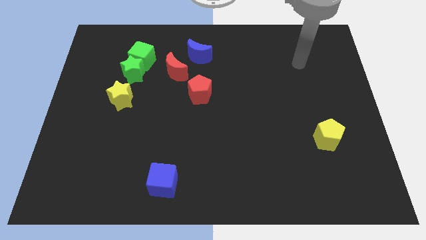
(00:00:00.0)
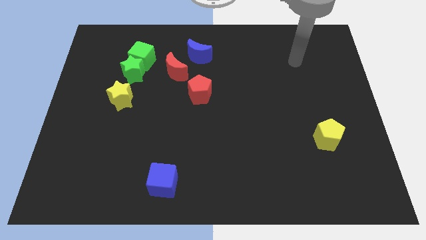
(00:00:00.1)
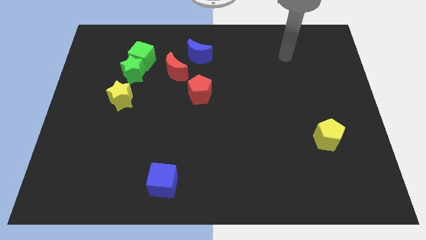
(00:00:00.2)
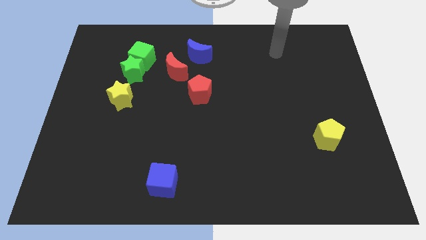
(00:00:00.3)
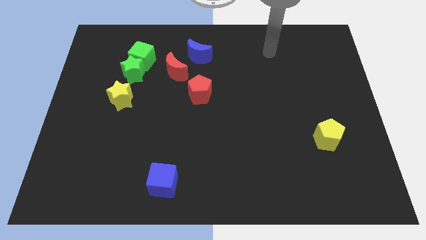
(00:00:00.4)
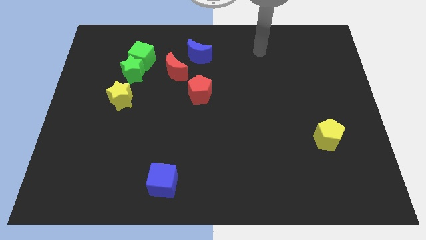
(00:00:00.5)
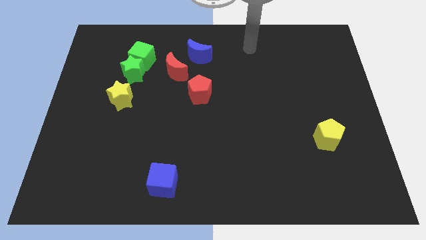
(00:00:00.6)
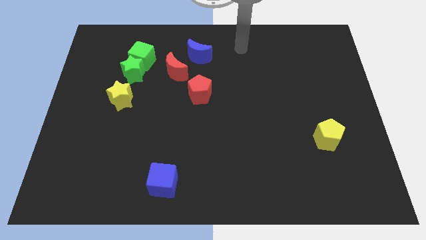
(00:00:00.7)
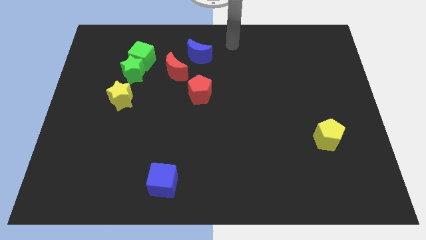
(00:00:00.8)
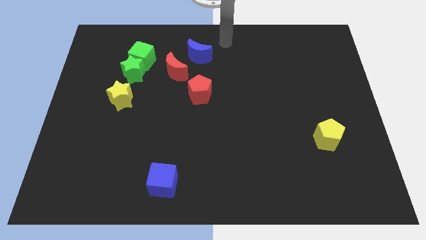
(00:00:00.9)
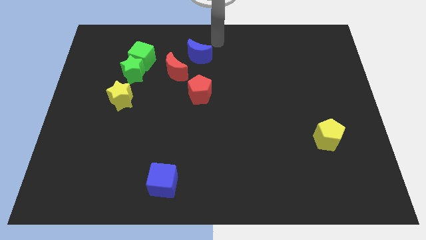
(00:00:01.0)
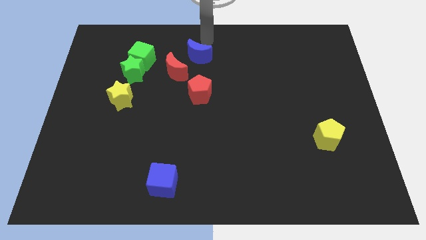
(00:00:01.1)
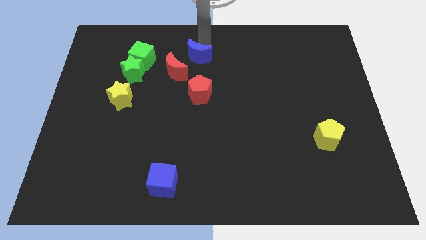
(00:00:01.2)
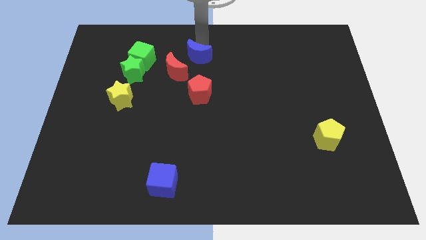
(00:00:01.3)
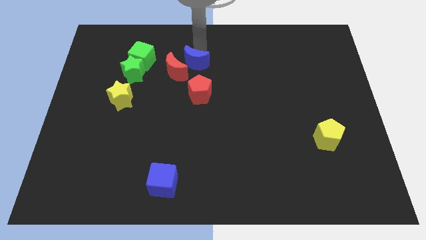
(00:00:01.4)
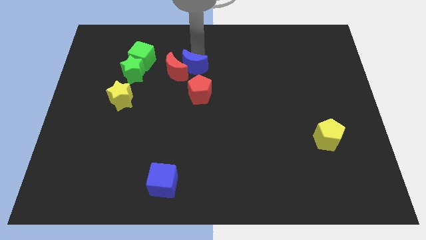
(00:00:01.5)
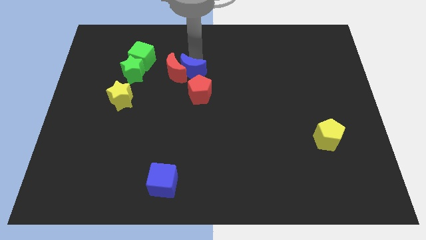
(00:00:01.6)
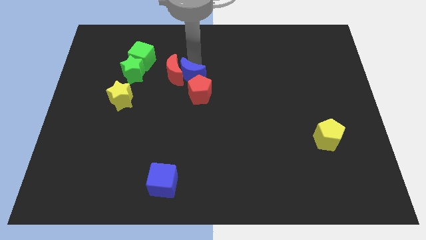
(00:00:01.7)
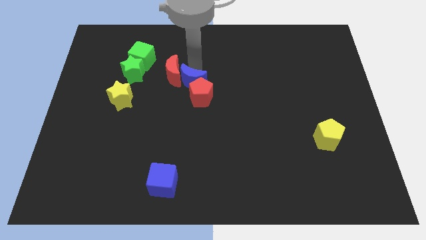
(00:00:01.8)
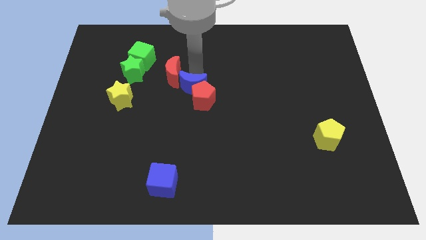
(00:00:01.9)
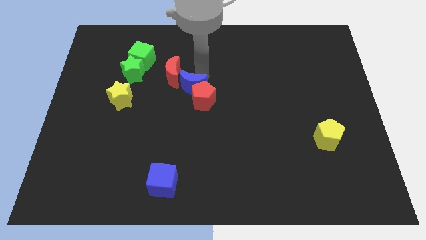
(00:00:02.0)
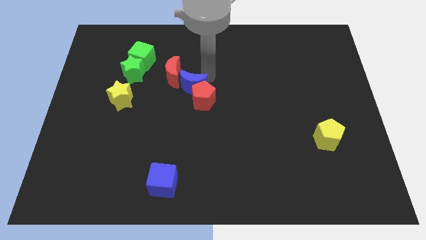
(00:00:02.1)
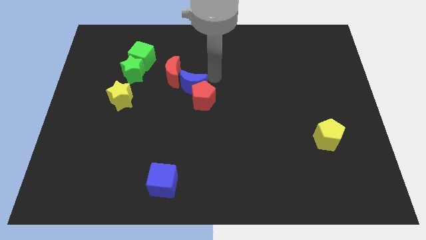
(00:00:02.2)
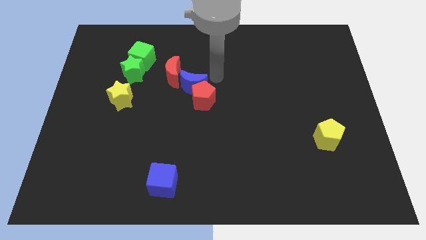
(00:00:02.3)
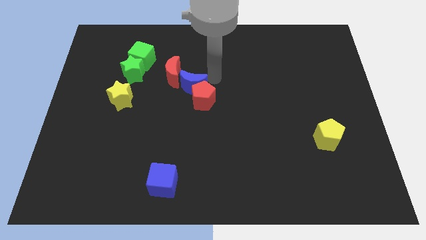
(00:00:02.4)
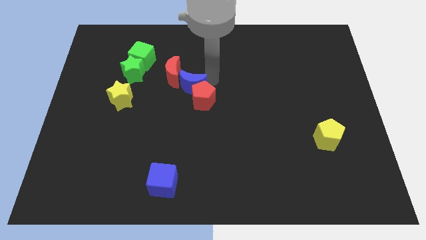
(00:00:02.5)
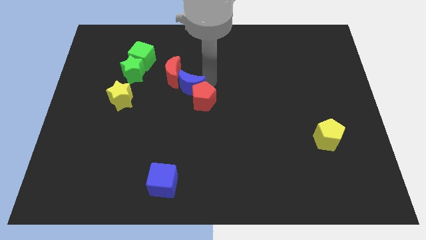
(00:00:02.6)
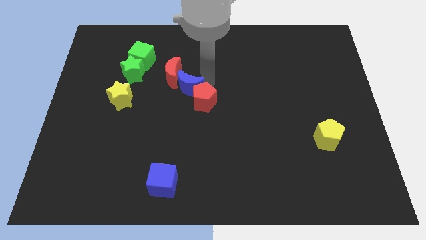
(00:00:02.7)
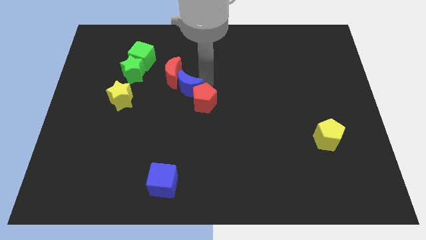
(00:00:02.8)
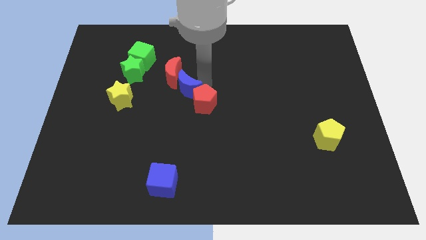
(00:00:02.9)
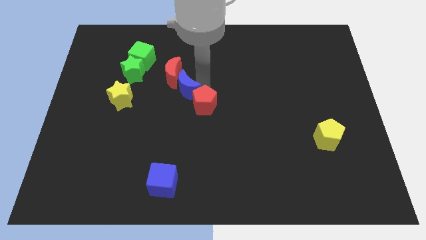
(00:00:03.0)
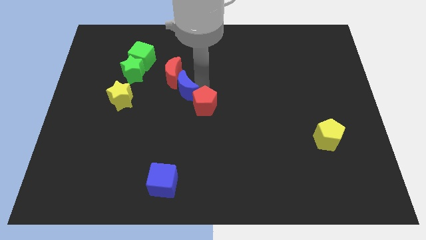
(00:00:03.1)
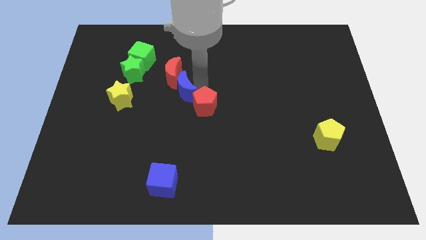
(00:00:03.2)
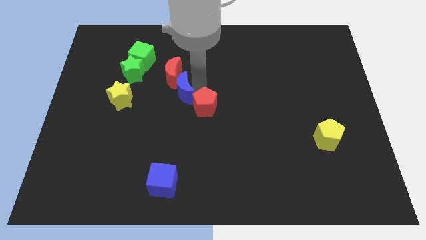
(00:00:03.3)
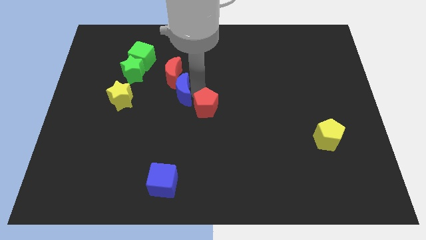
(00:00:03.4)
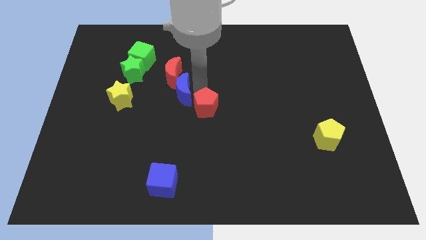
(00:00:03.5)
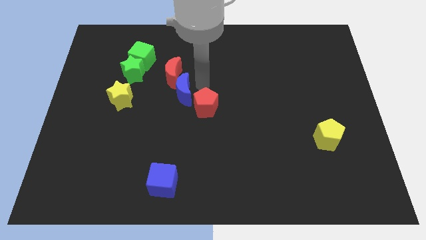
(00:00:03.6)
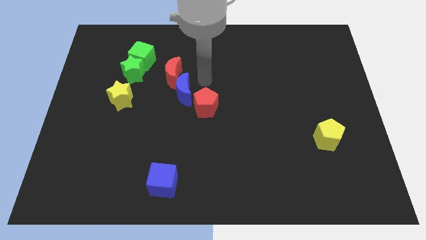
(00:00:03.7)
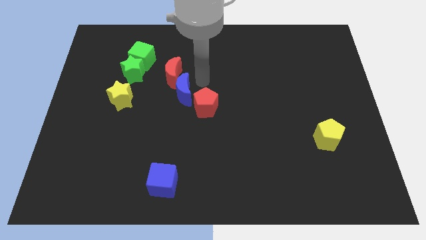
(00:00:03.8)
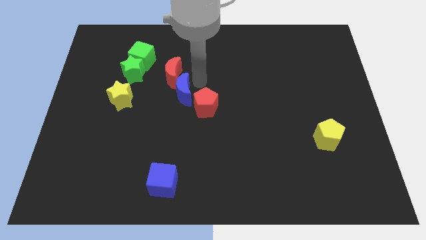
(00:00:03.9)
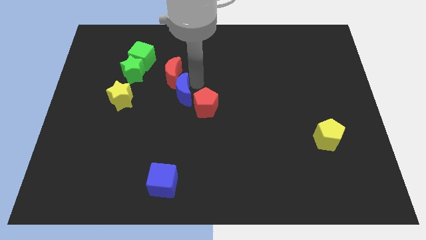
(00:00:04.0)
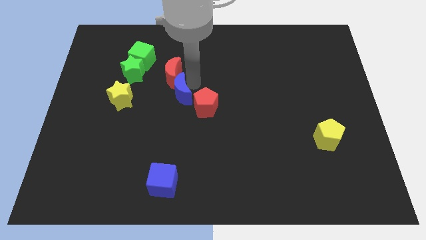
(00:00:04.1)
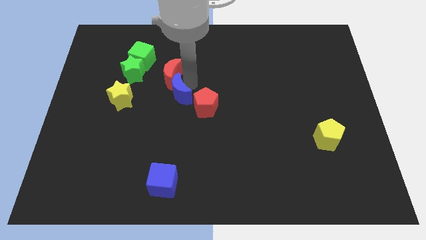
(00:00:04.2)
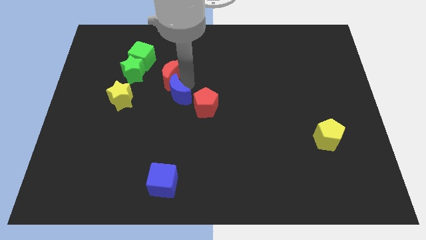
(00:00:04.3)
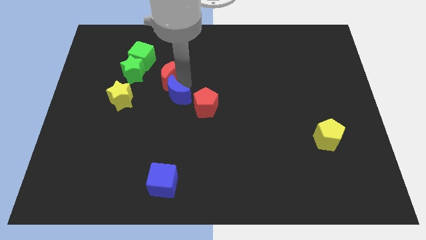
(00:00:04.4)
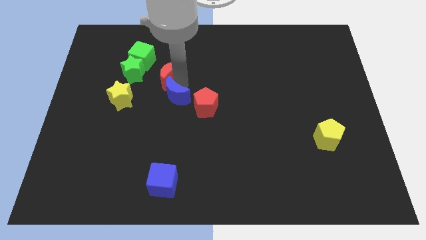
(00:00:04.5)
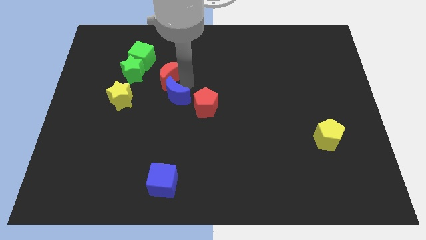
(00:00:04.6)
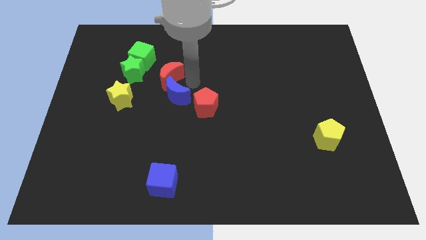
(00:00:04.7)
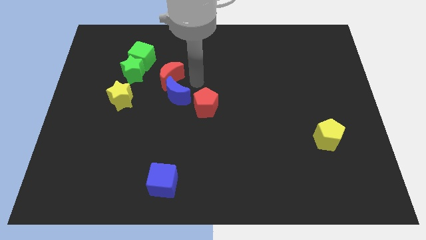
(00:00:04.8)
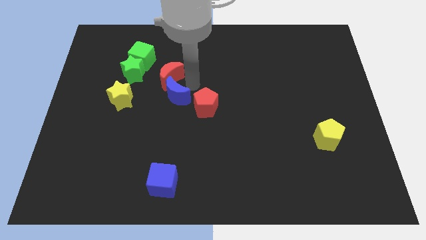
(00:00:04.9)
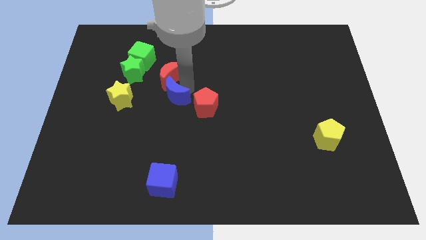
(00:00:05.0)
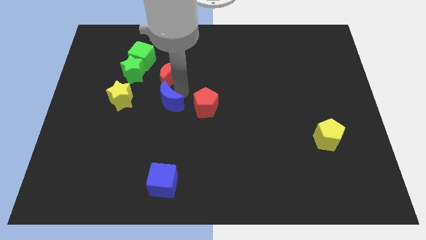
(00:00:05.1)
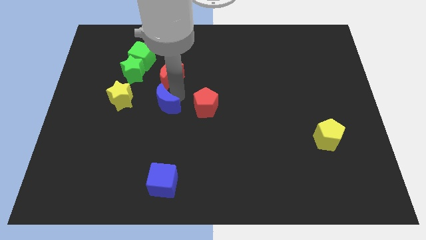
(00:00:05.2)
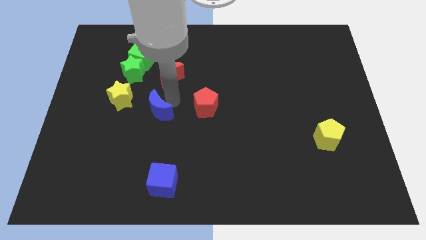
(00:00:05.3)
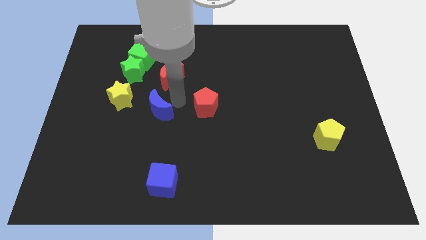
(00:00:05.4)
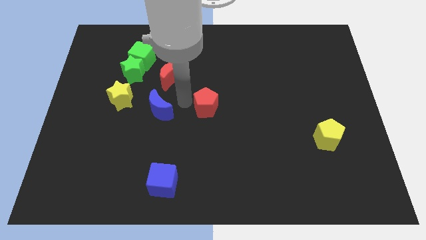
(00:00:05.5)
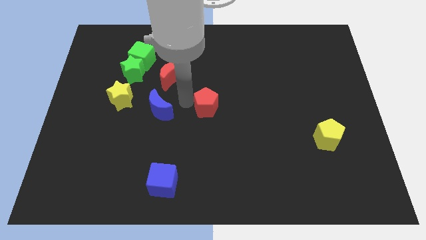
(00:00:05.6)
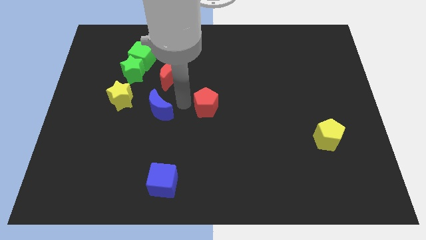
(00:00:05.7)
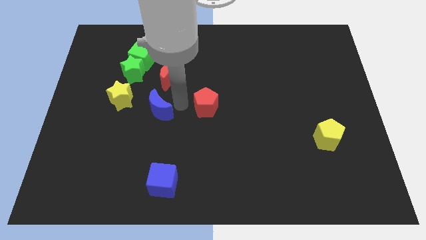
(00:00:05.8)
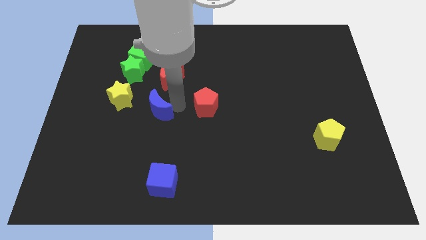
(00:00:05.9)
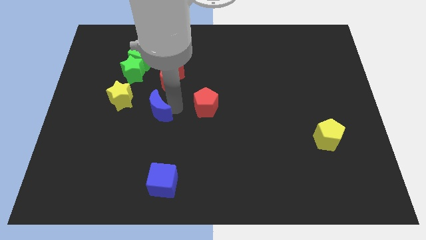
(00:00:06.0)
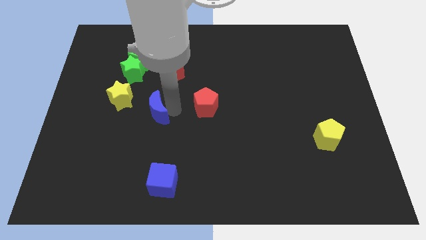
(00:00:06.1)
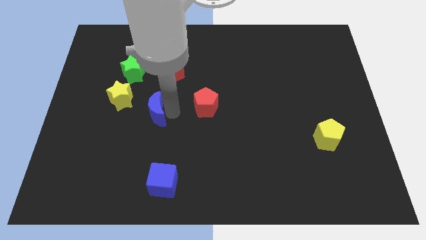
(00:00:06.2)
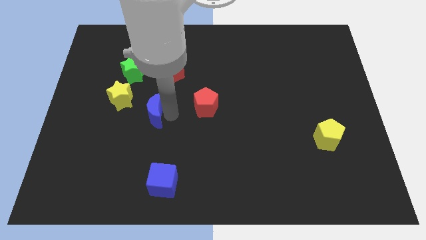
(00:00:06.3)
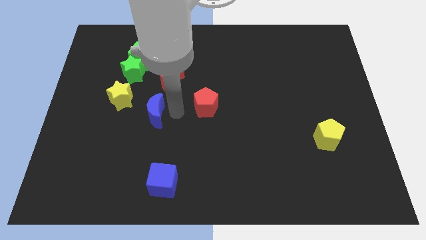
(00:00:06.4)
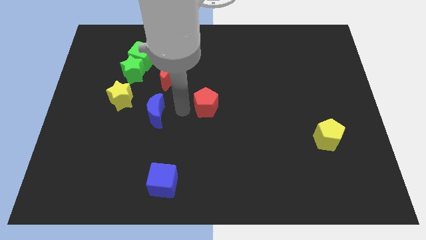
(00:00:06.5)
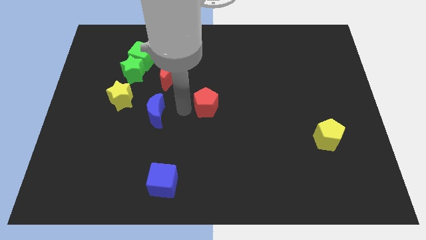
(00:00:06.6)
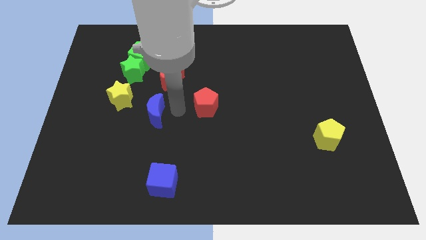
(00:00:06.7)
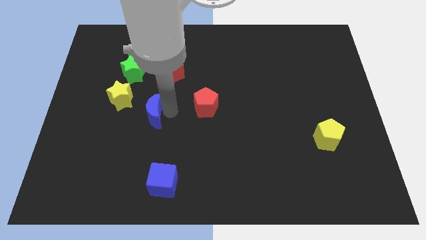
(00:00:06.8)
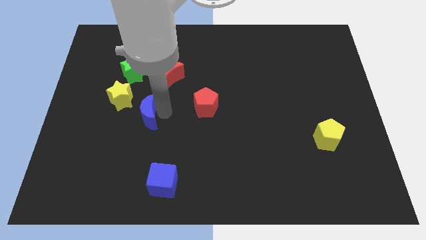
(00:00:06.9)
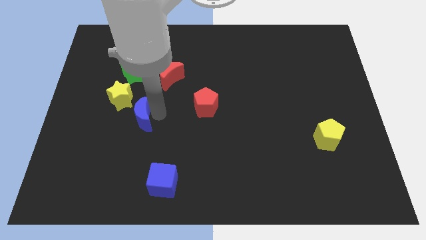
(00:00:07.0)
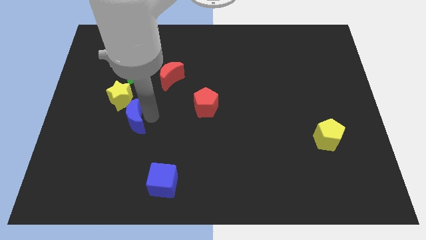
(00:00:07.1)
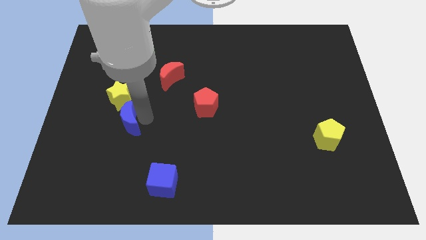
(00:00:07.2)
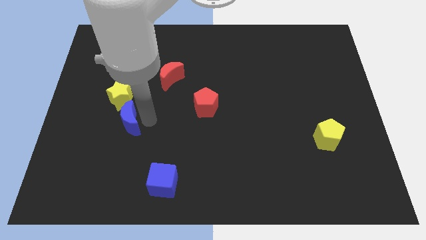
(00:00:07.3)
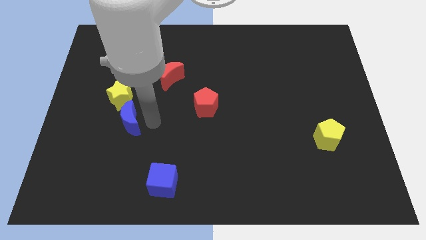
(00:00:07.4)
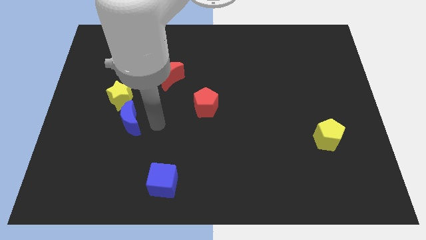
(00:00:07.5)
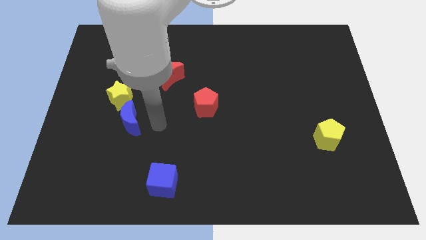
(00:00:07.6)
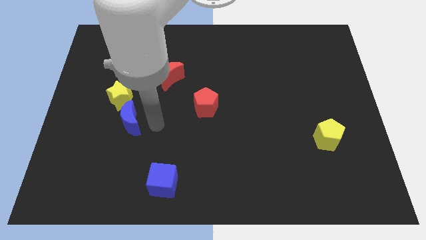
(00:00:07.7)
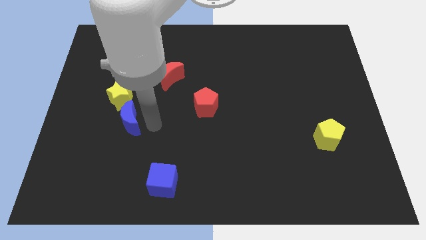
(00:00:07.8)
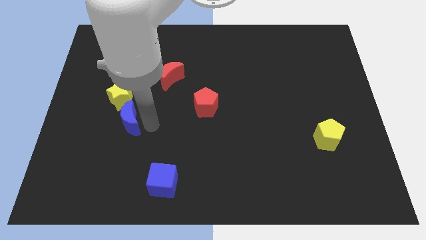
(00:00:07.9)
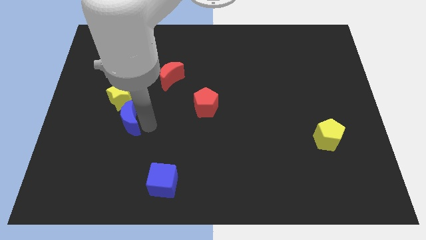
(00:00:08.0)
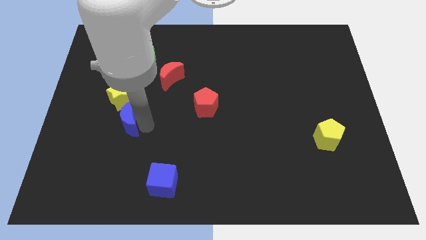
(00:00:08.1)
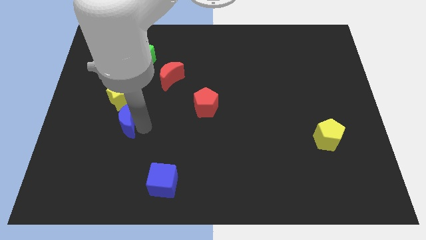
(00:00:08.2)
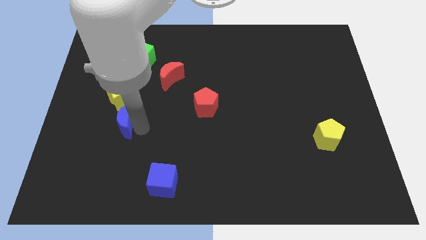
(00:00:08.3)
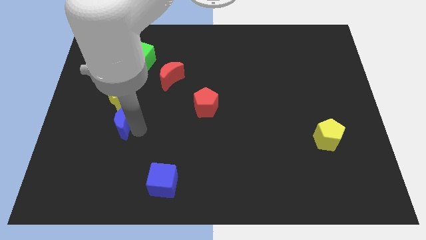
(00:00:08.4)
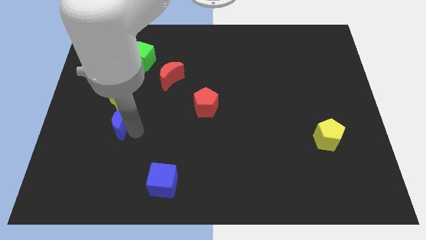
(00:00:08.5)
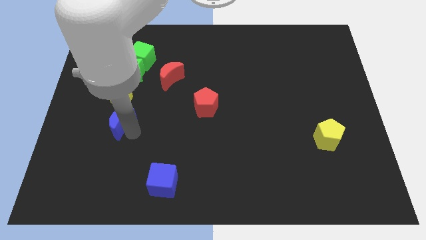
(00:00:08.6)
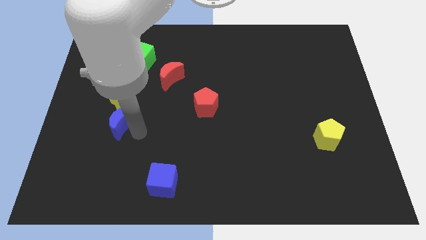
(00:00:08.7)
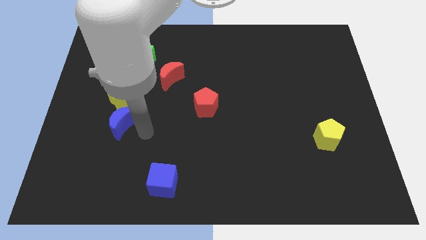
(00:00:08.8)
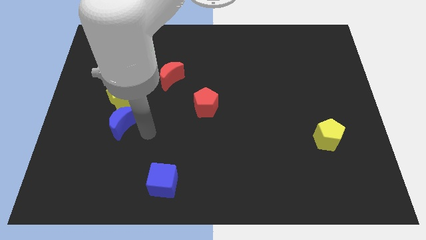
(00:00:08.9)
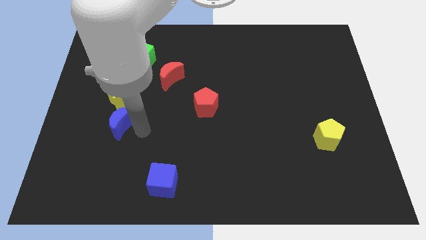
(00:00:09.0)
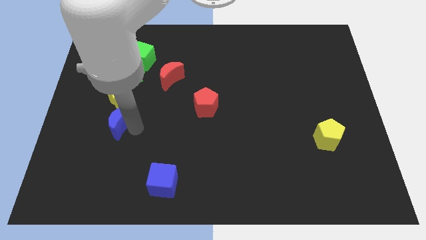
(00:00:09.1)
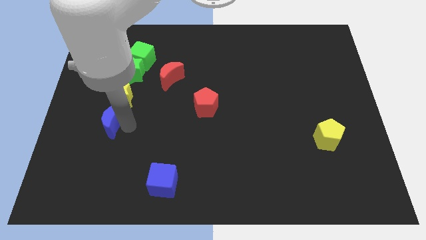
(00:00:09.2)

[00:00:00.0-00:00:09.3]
put the blue moon to the bottom left side of the yellow star
